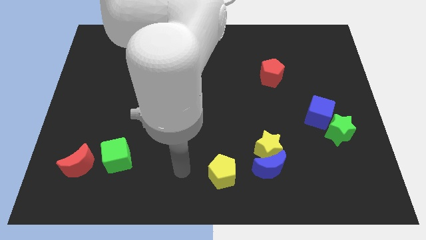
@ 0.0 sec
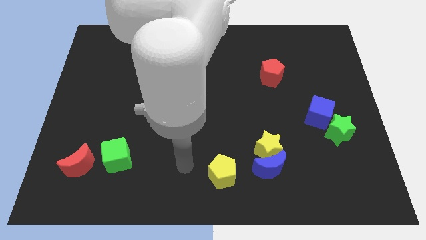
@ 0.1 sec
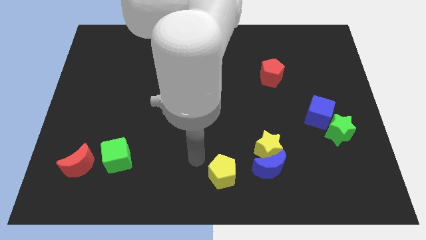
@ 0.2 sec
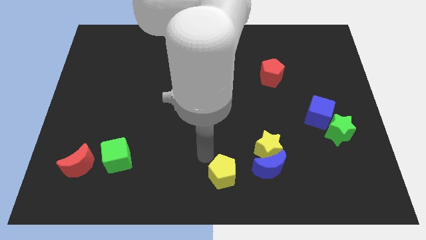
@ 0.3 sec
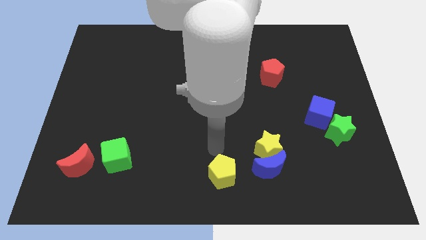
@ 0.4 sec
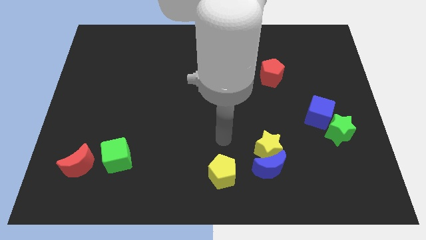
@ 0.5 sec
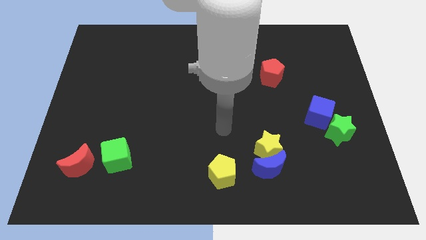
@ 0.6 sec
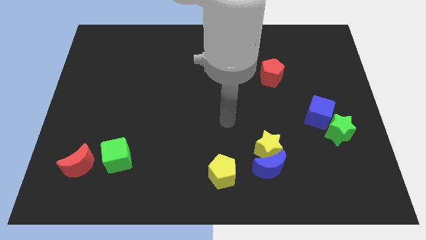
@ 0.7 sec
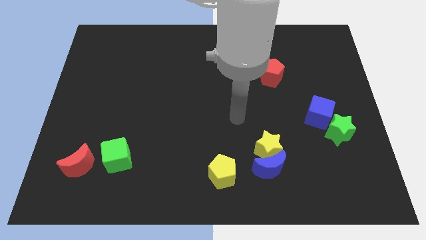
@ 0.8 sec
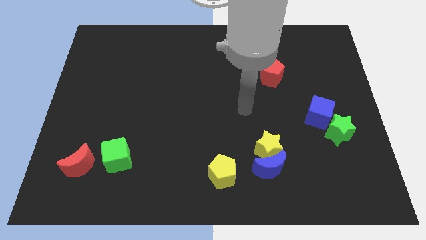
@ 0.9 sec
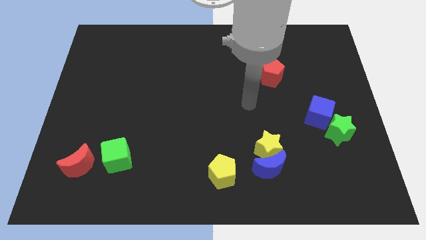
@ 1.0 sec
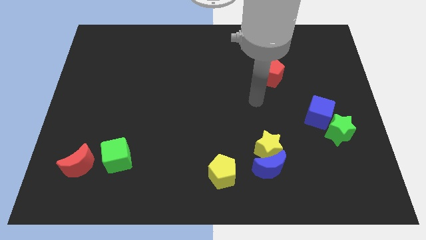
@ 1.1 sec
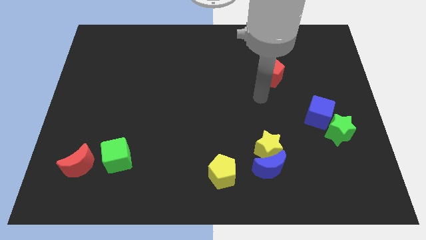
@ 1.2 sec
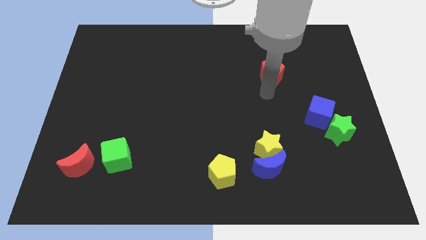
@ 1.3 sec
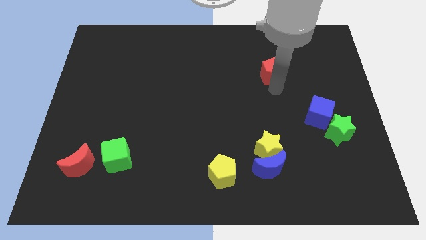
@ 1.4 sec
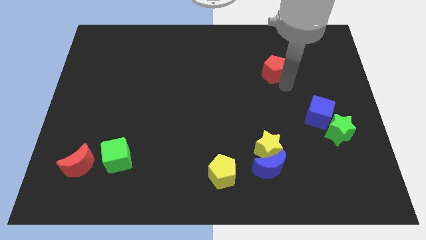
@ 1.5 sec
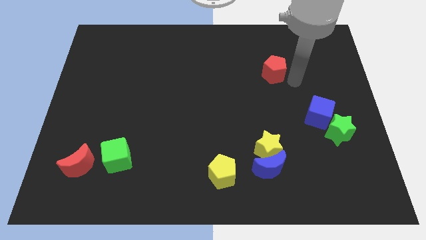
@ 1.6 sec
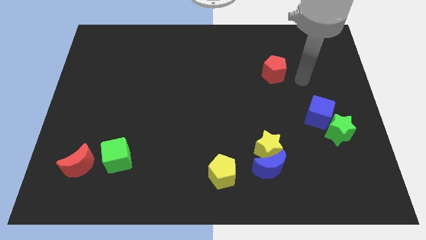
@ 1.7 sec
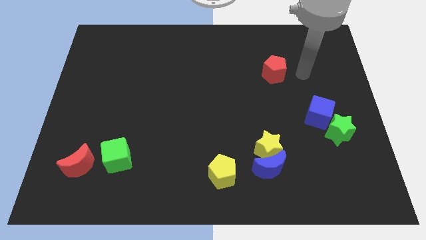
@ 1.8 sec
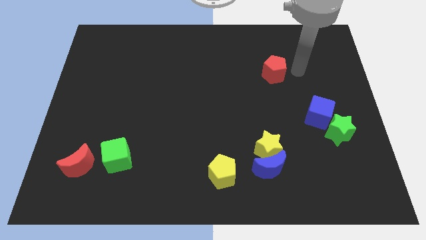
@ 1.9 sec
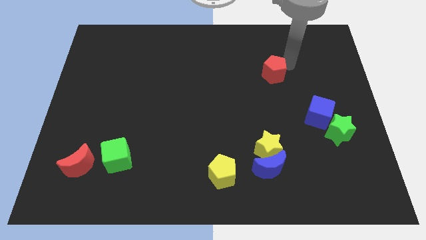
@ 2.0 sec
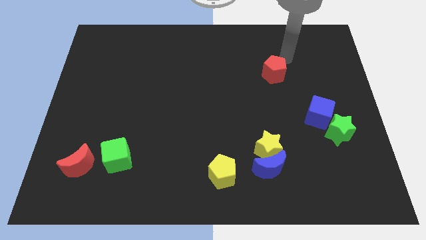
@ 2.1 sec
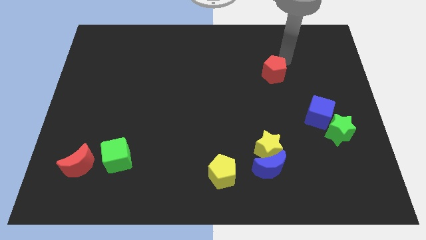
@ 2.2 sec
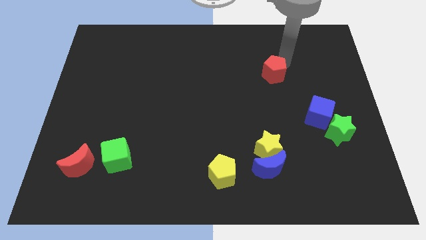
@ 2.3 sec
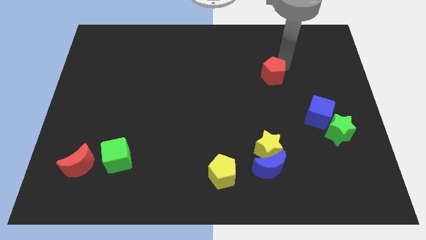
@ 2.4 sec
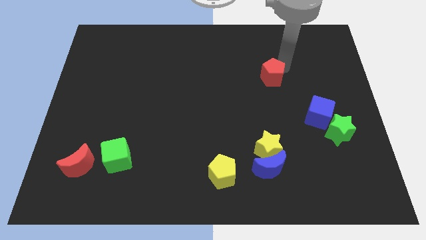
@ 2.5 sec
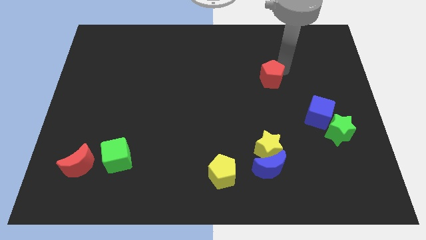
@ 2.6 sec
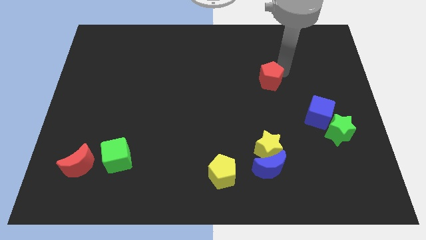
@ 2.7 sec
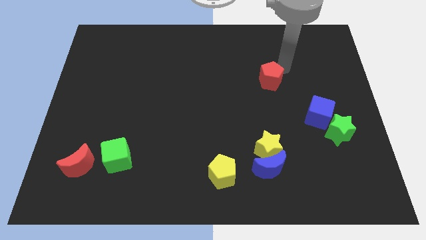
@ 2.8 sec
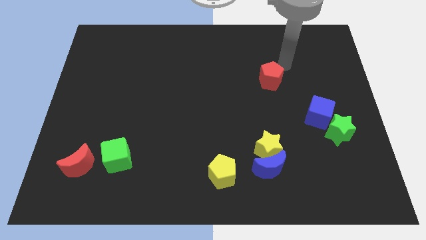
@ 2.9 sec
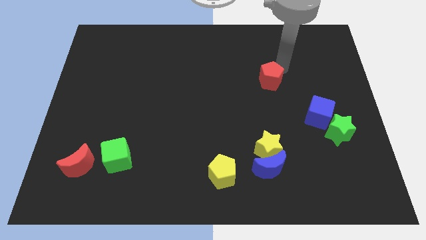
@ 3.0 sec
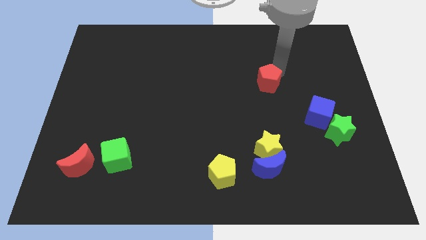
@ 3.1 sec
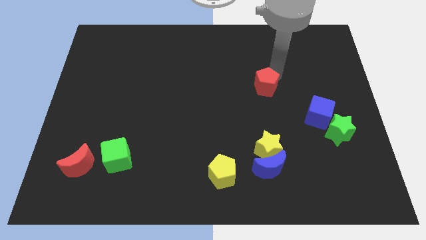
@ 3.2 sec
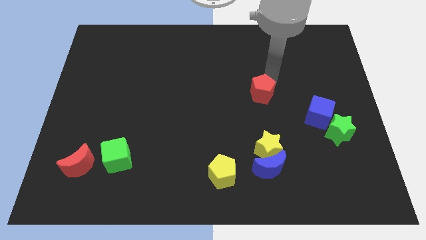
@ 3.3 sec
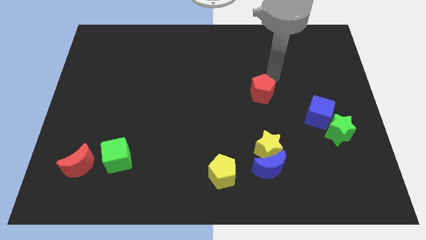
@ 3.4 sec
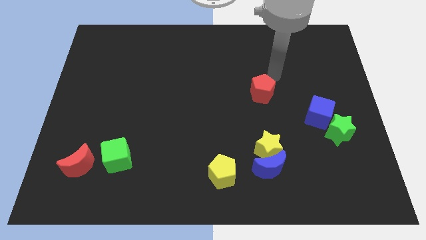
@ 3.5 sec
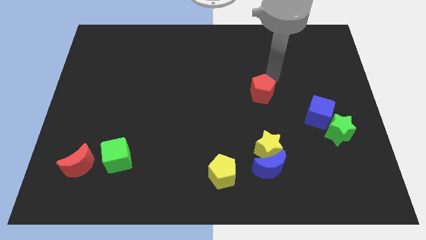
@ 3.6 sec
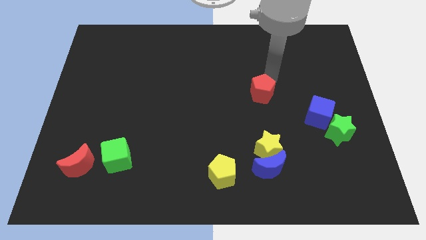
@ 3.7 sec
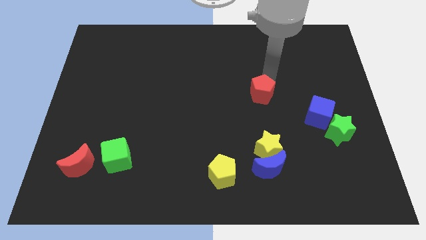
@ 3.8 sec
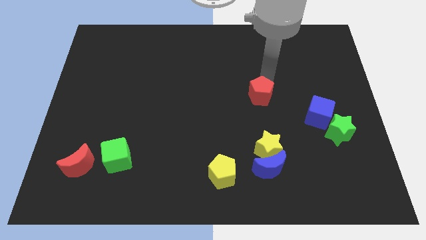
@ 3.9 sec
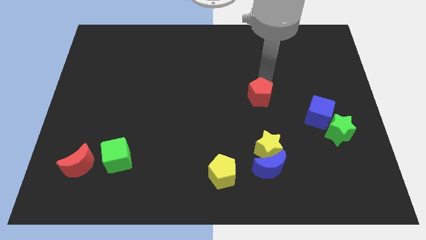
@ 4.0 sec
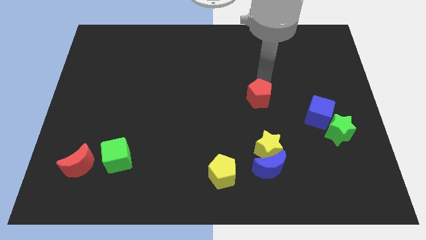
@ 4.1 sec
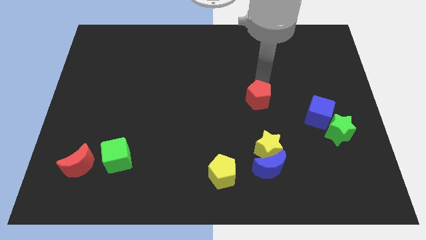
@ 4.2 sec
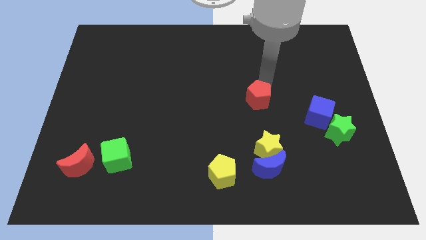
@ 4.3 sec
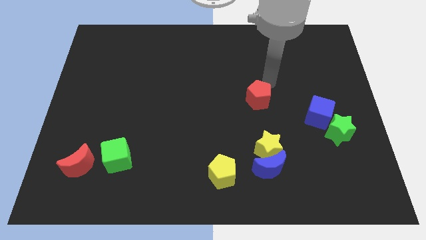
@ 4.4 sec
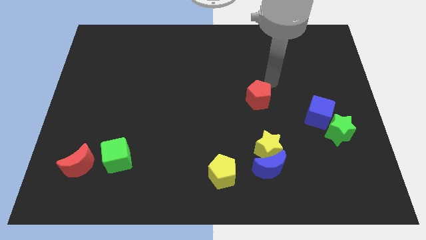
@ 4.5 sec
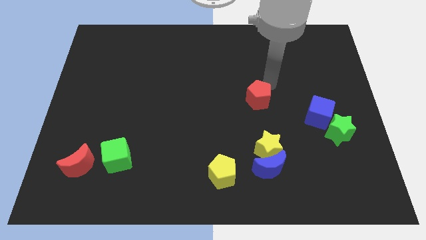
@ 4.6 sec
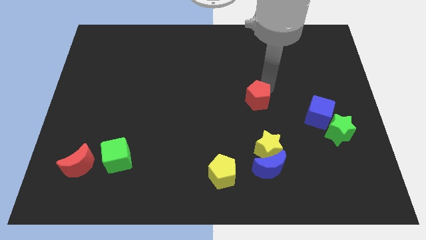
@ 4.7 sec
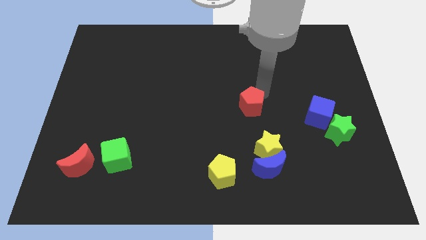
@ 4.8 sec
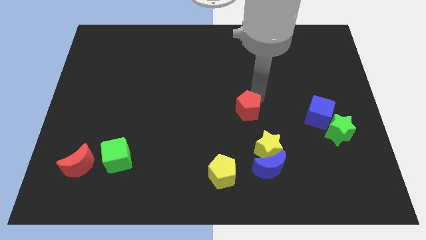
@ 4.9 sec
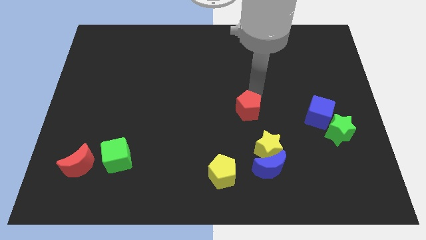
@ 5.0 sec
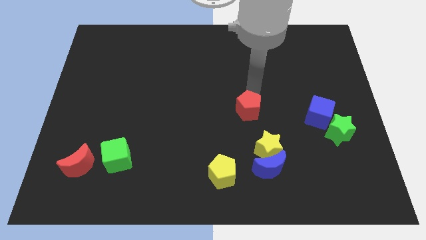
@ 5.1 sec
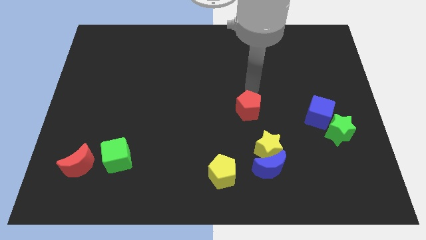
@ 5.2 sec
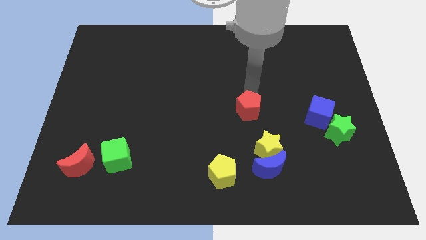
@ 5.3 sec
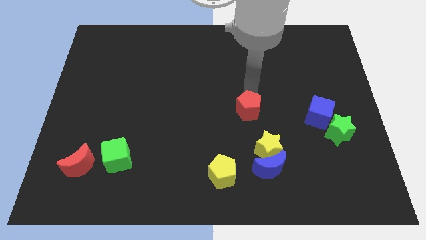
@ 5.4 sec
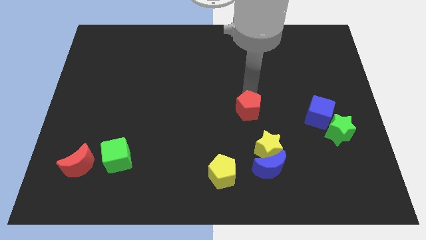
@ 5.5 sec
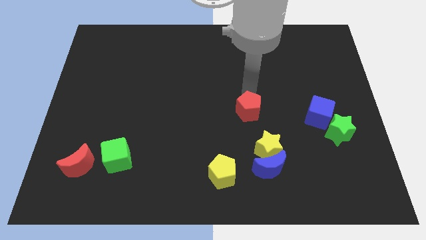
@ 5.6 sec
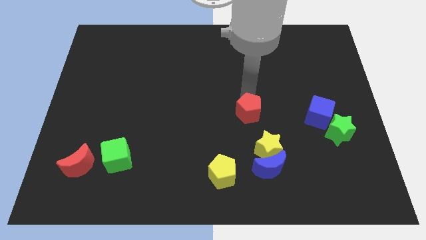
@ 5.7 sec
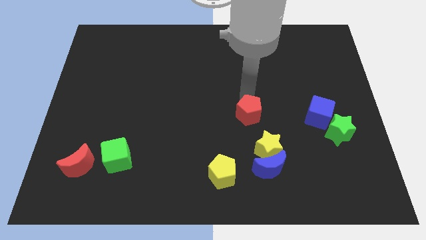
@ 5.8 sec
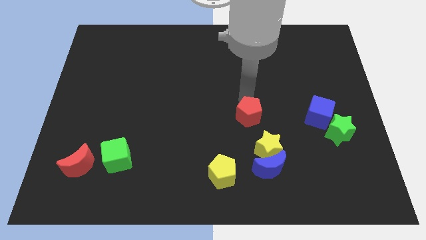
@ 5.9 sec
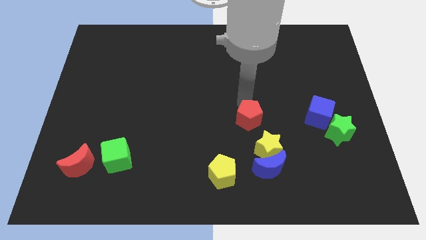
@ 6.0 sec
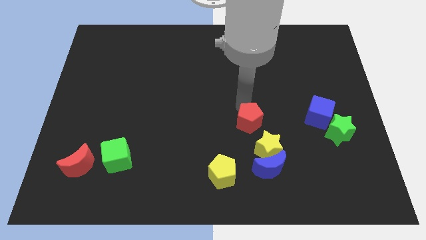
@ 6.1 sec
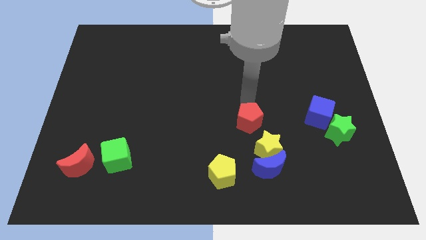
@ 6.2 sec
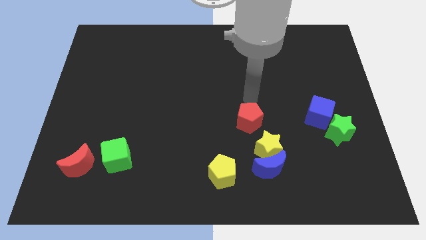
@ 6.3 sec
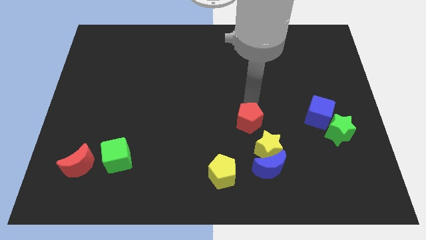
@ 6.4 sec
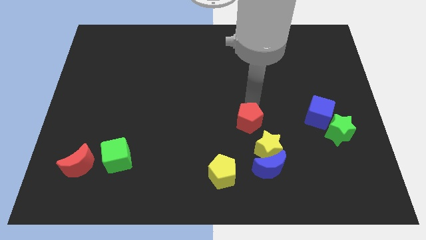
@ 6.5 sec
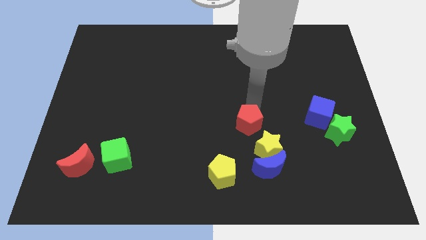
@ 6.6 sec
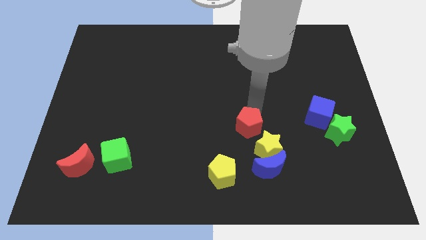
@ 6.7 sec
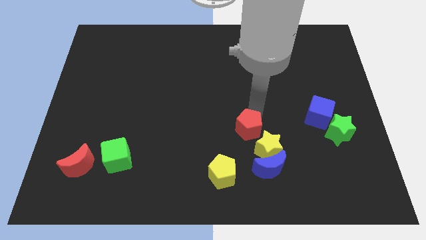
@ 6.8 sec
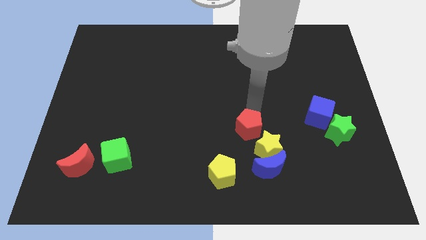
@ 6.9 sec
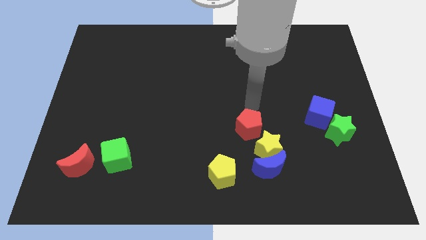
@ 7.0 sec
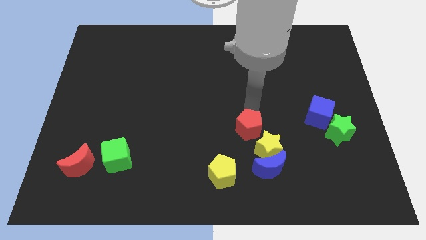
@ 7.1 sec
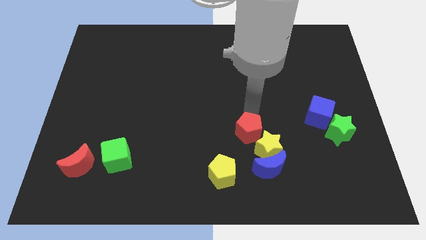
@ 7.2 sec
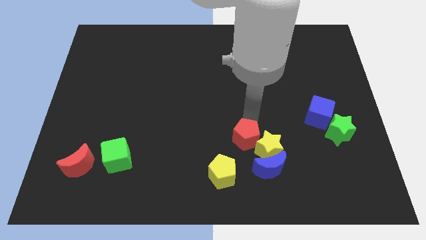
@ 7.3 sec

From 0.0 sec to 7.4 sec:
move the red pentagon to the top right side of the yellow pentagon
